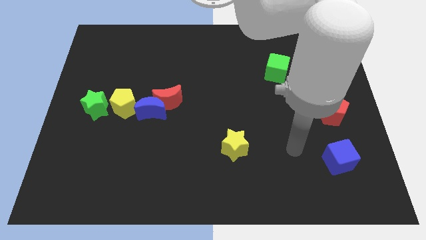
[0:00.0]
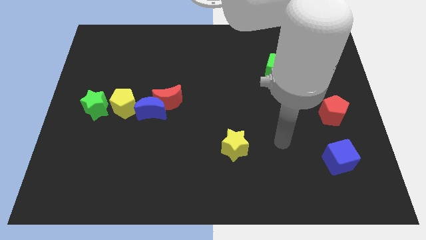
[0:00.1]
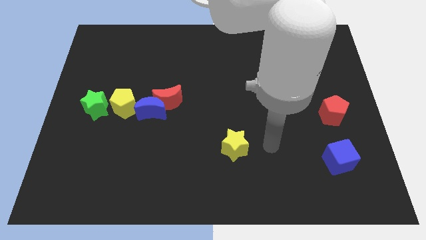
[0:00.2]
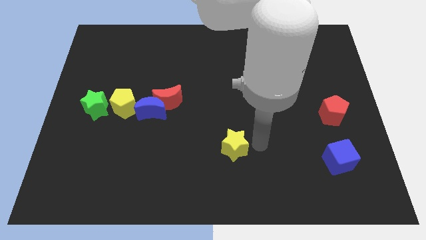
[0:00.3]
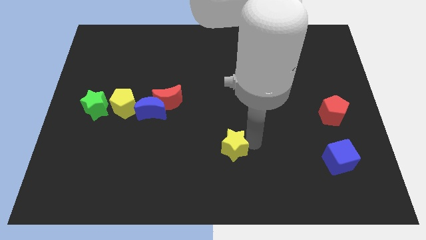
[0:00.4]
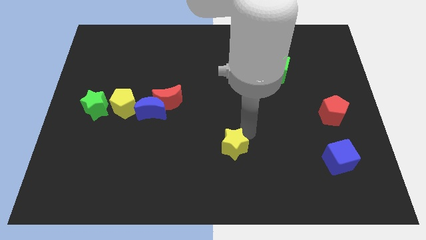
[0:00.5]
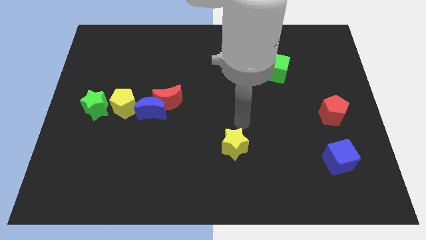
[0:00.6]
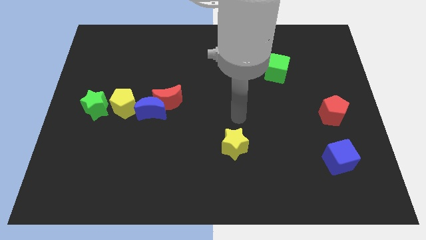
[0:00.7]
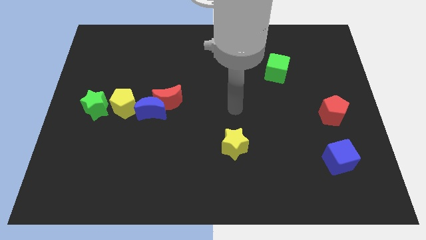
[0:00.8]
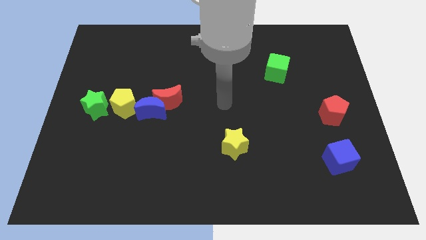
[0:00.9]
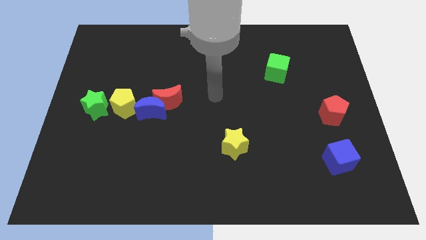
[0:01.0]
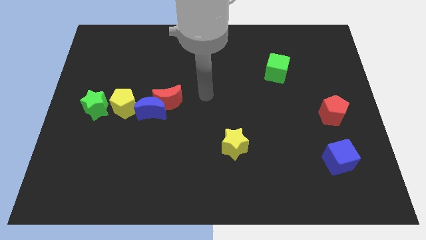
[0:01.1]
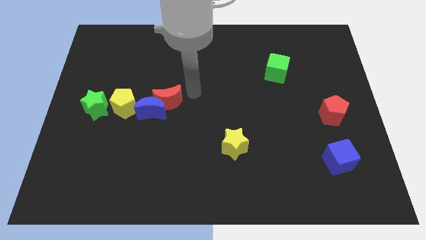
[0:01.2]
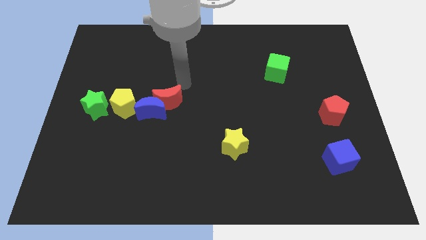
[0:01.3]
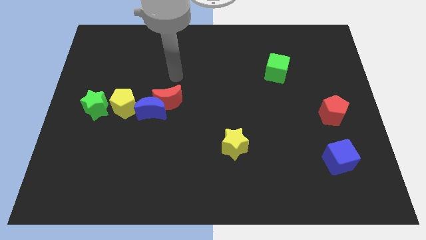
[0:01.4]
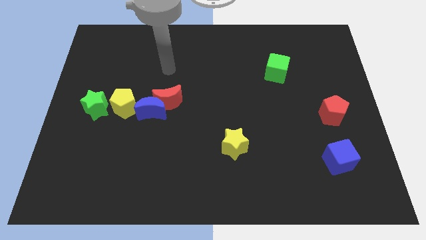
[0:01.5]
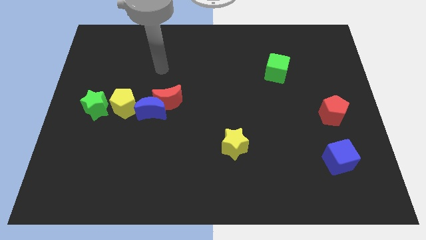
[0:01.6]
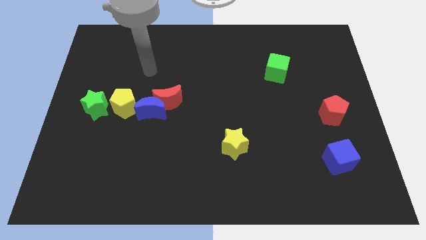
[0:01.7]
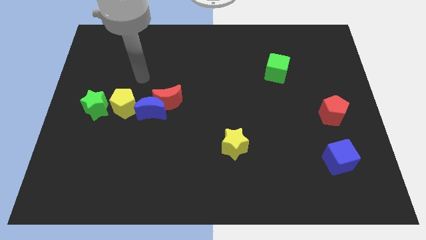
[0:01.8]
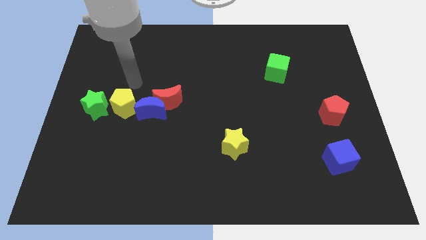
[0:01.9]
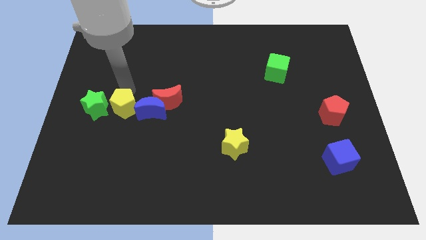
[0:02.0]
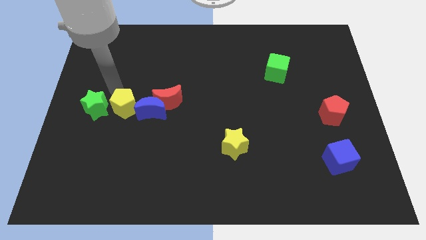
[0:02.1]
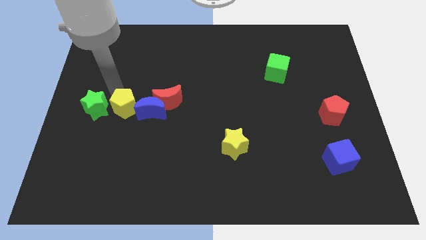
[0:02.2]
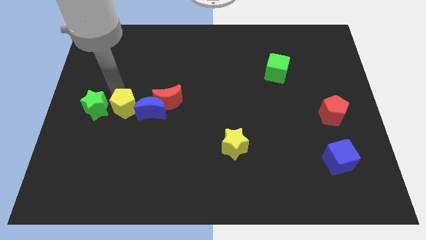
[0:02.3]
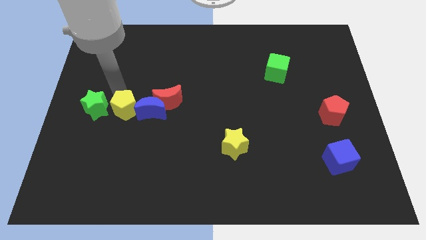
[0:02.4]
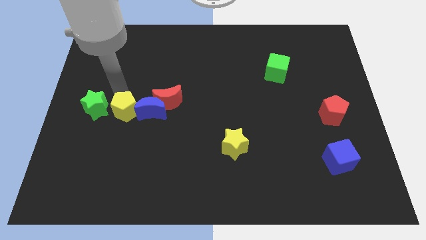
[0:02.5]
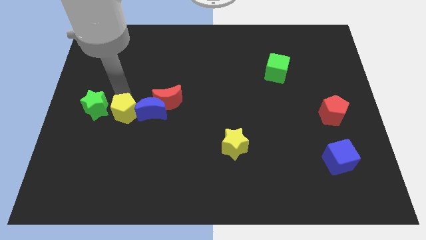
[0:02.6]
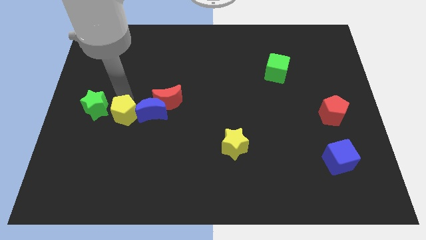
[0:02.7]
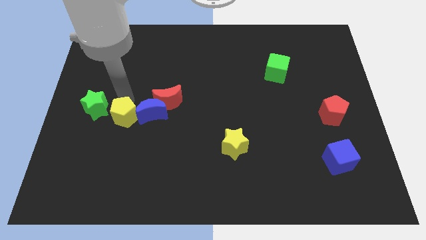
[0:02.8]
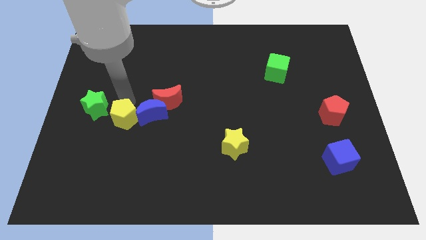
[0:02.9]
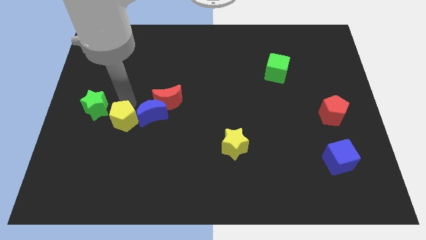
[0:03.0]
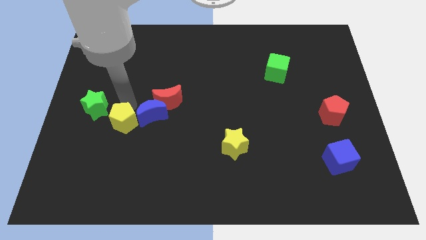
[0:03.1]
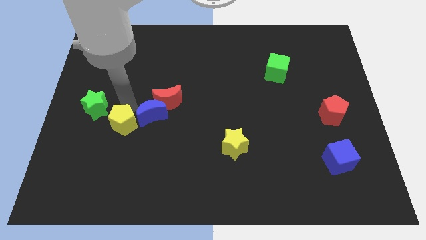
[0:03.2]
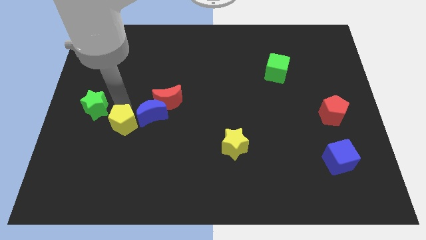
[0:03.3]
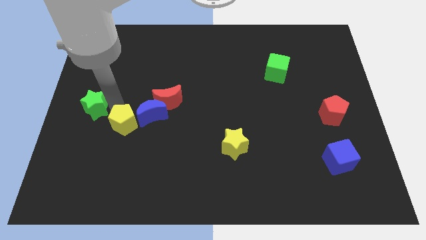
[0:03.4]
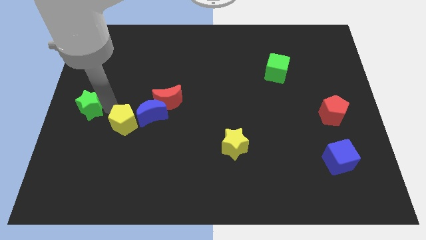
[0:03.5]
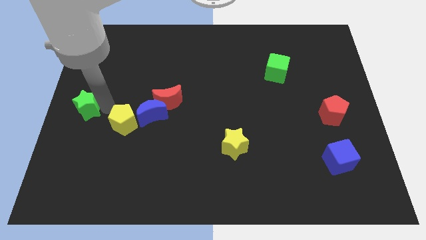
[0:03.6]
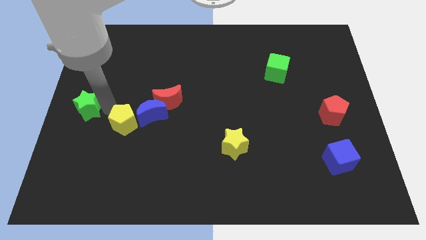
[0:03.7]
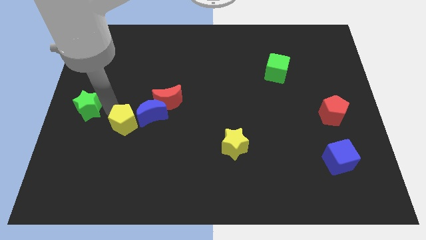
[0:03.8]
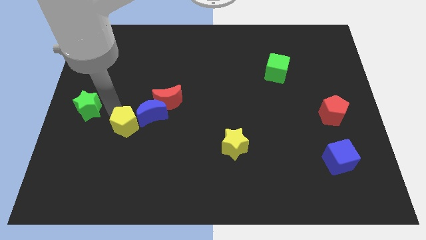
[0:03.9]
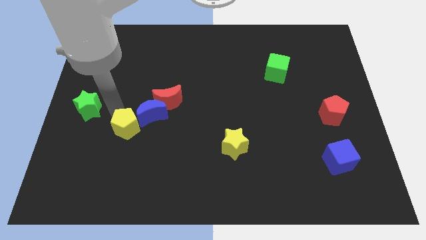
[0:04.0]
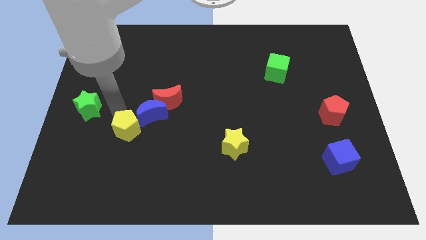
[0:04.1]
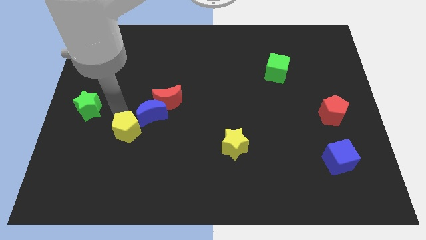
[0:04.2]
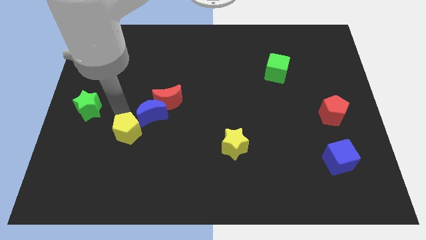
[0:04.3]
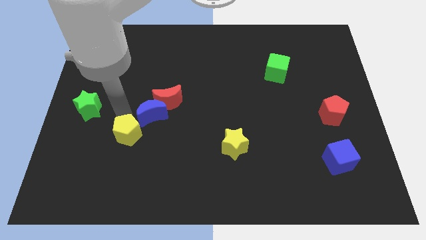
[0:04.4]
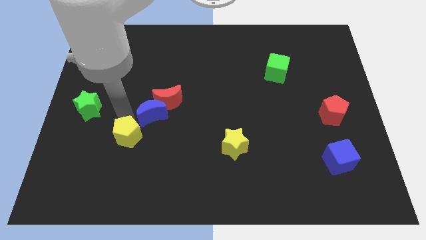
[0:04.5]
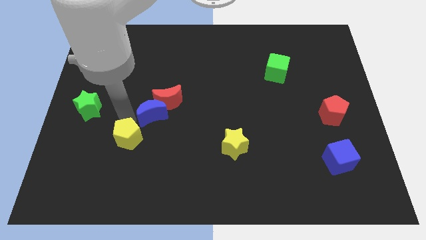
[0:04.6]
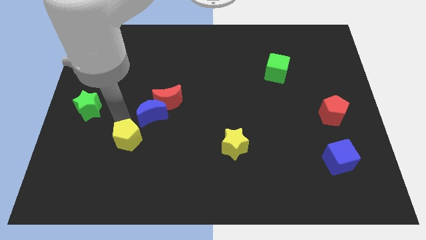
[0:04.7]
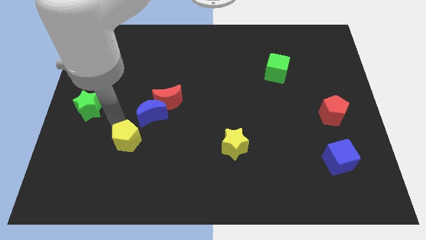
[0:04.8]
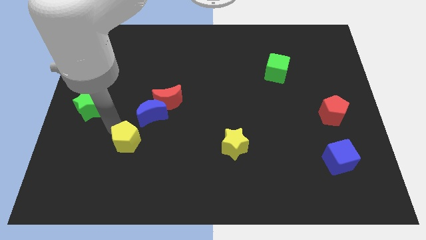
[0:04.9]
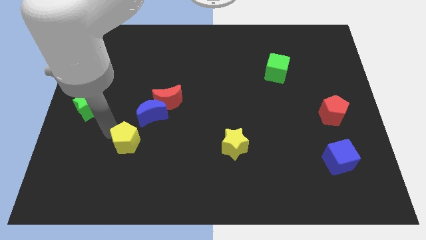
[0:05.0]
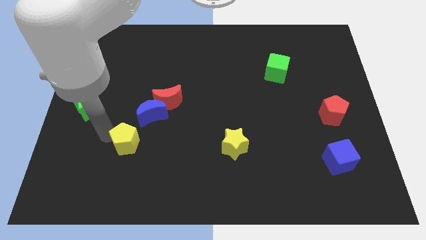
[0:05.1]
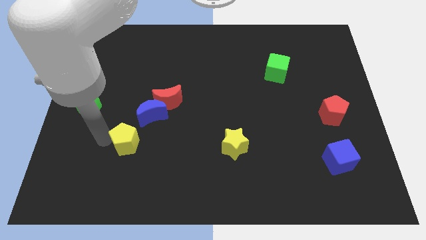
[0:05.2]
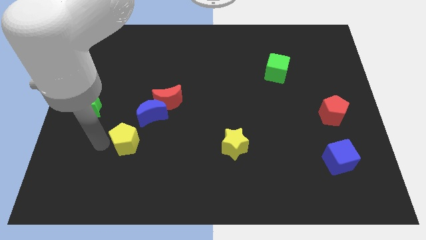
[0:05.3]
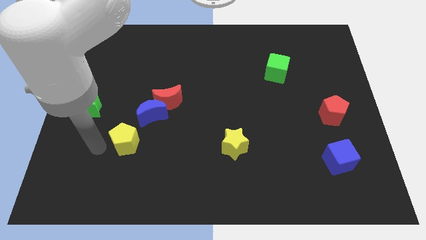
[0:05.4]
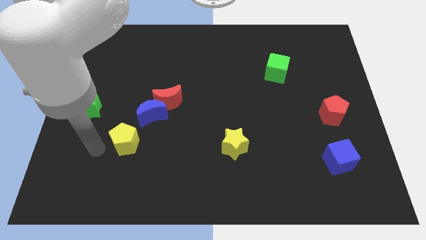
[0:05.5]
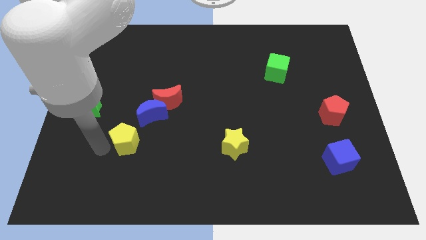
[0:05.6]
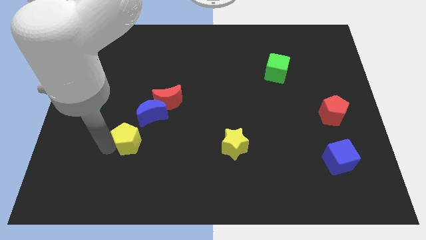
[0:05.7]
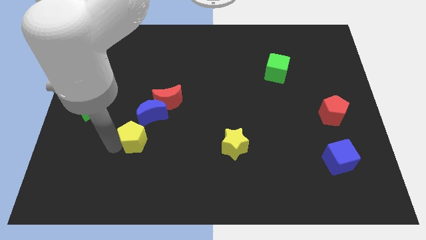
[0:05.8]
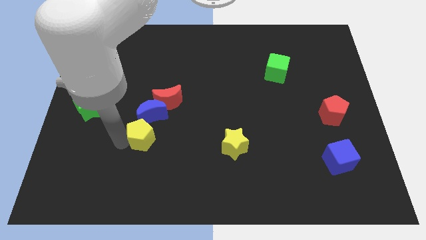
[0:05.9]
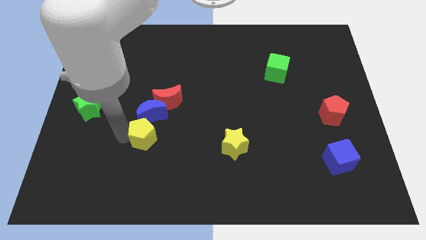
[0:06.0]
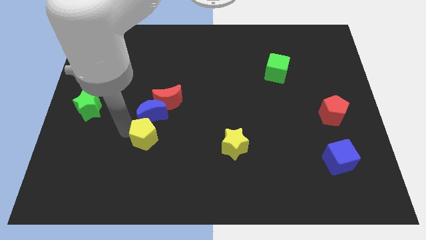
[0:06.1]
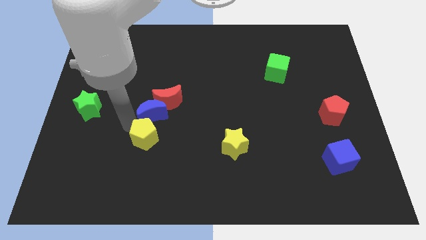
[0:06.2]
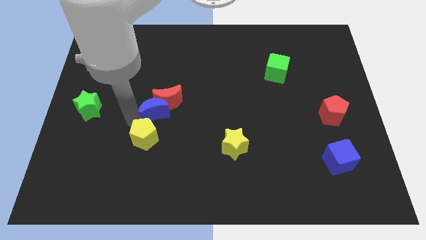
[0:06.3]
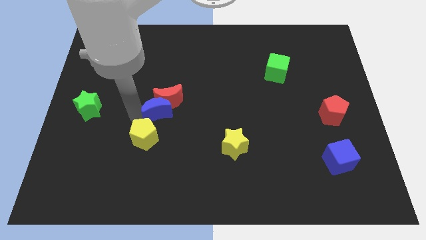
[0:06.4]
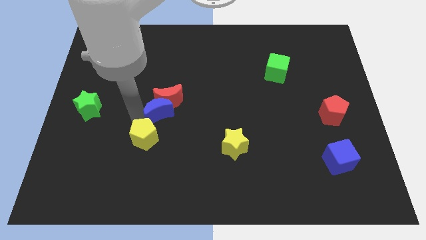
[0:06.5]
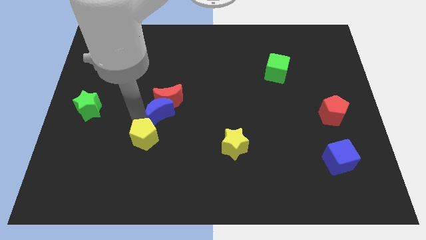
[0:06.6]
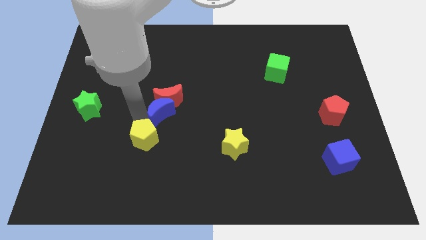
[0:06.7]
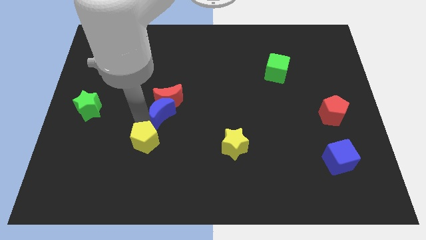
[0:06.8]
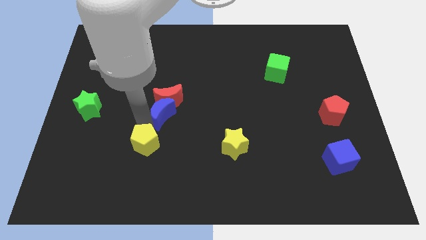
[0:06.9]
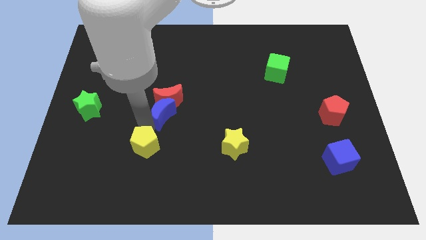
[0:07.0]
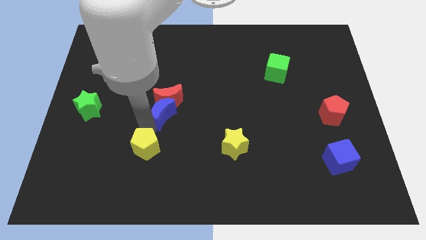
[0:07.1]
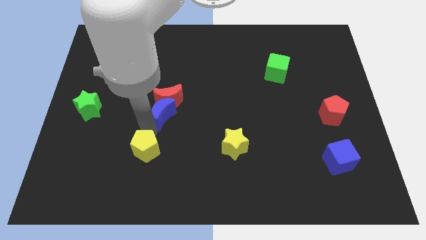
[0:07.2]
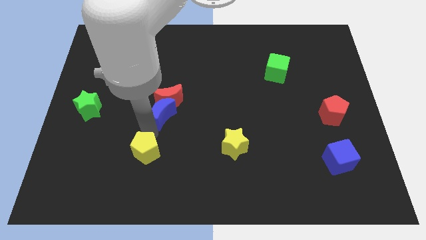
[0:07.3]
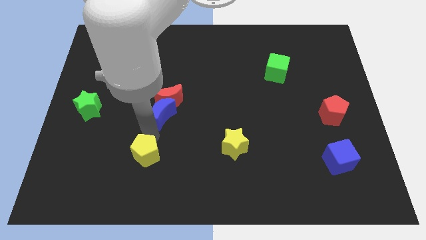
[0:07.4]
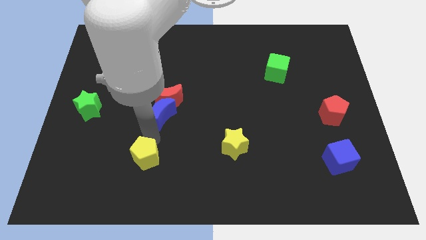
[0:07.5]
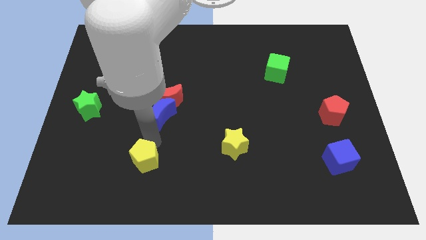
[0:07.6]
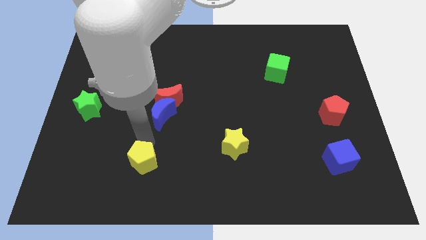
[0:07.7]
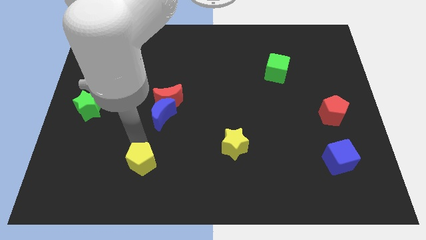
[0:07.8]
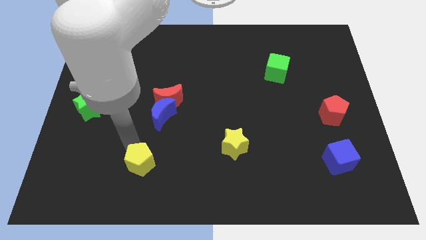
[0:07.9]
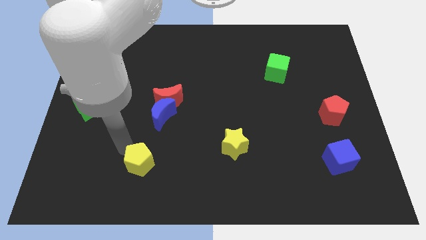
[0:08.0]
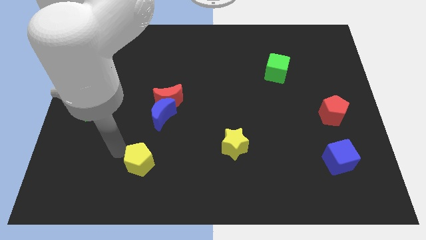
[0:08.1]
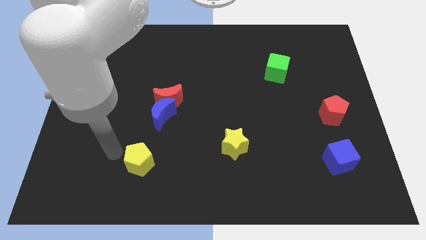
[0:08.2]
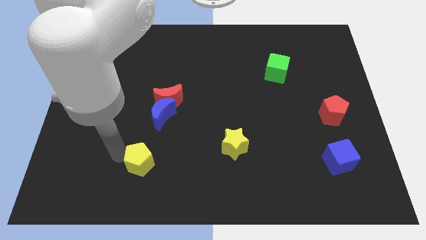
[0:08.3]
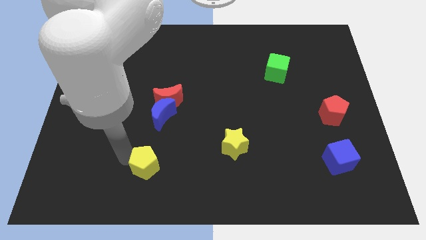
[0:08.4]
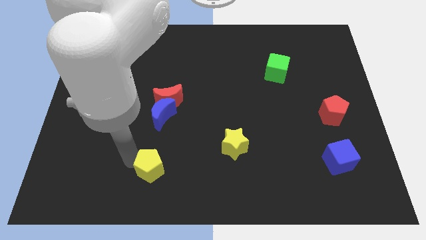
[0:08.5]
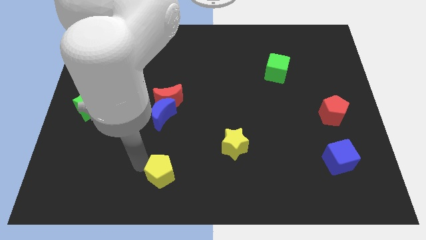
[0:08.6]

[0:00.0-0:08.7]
move the yellow pentagon to the bottom side
